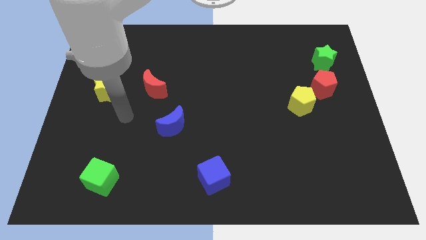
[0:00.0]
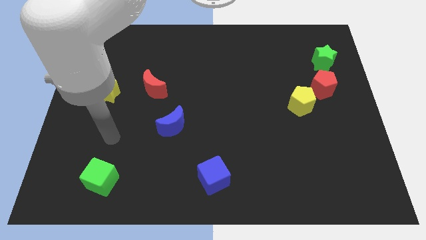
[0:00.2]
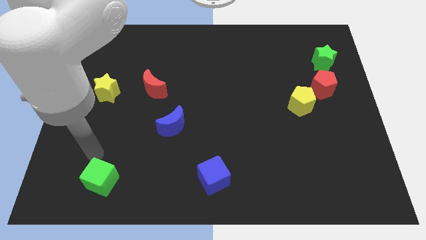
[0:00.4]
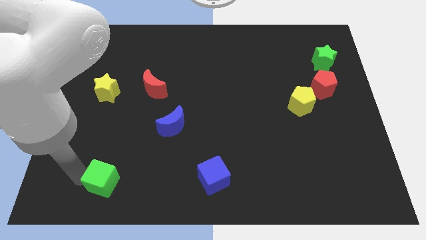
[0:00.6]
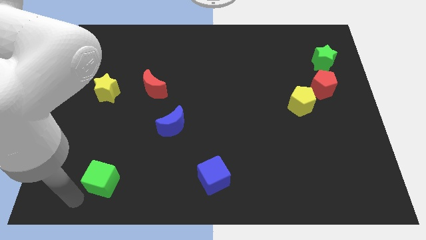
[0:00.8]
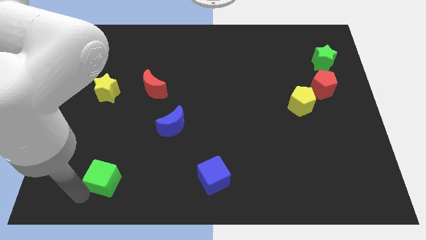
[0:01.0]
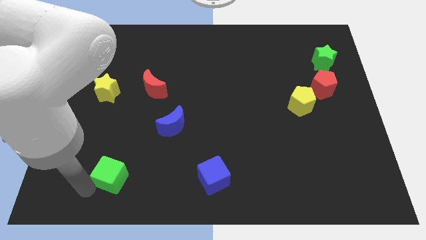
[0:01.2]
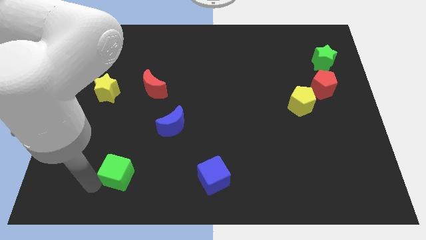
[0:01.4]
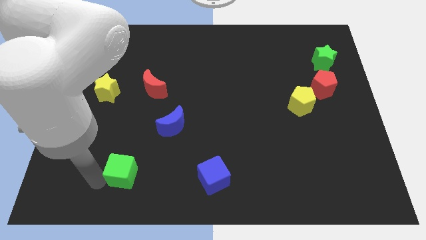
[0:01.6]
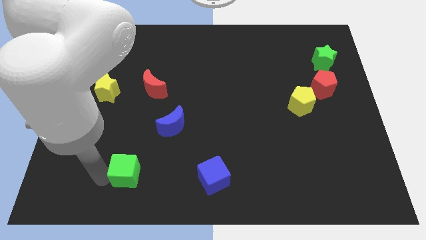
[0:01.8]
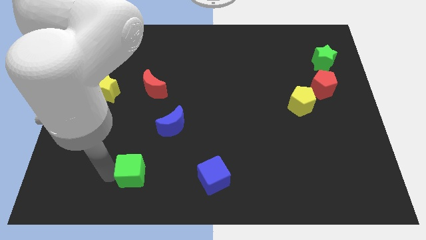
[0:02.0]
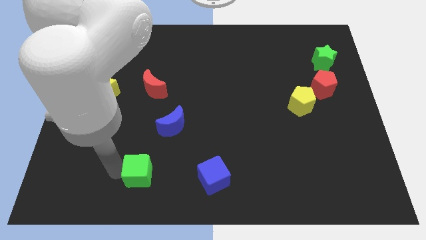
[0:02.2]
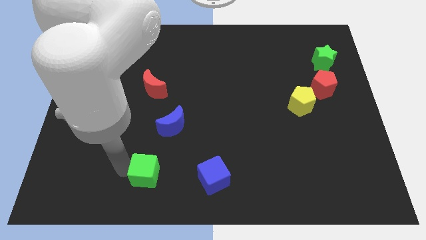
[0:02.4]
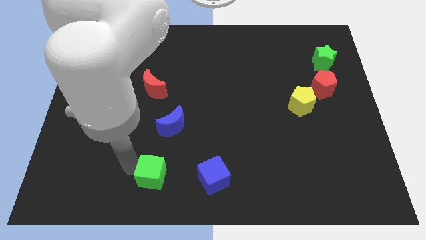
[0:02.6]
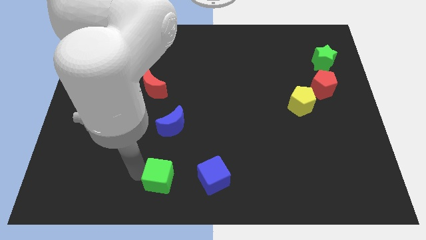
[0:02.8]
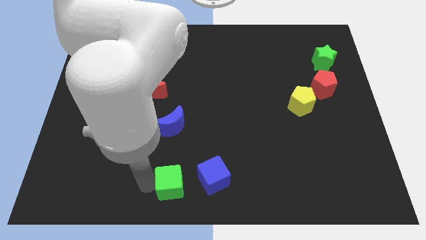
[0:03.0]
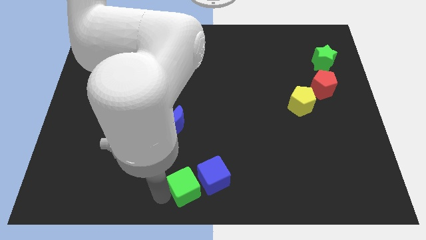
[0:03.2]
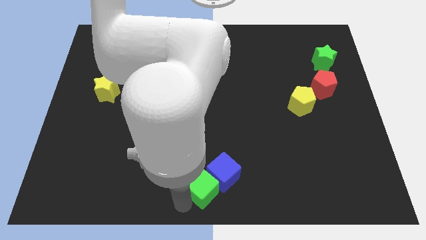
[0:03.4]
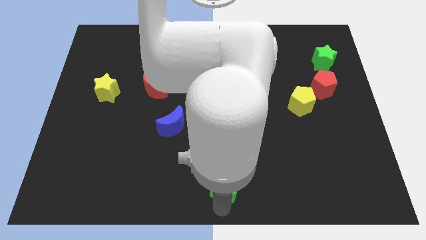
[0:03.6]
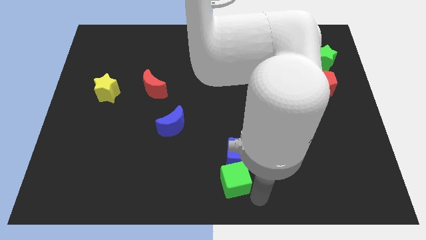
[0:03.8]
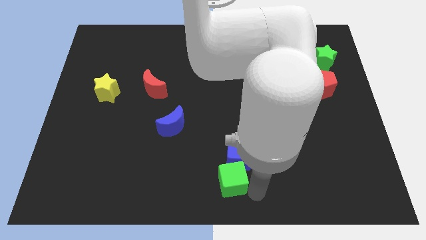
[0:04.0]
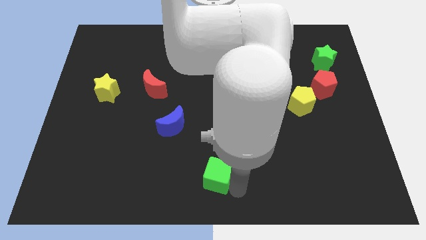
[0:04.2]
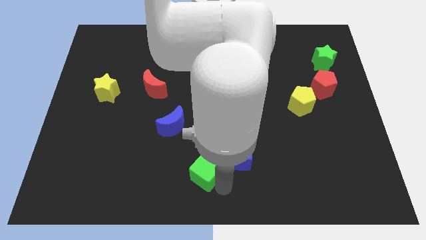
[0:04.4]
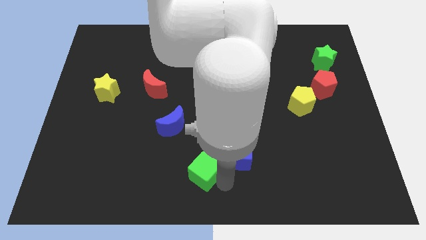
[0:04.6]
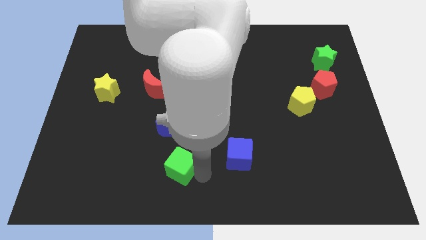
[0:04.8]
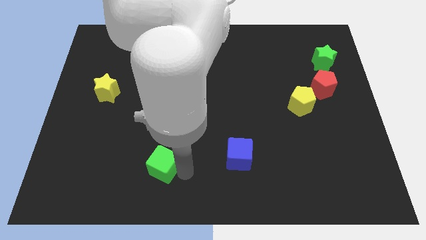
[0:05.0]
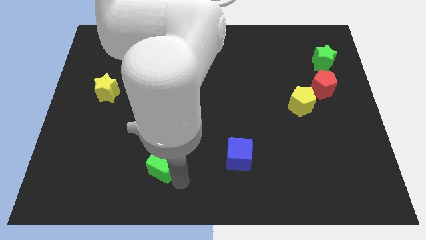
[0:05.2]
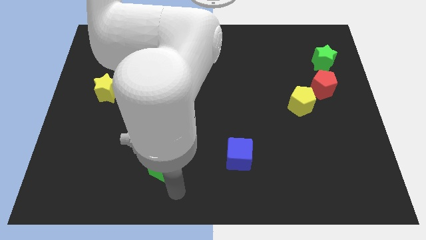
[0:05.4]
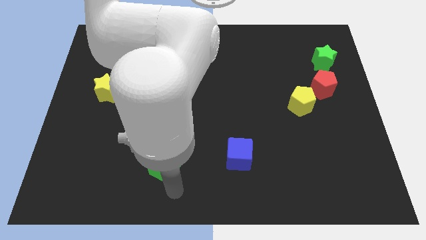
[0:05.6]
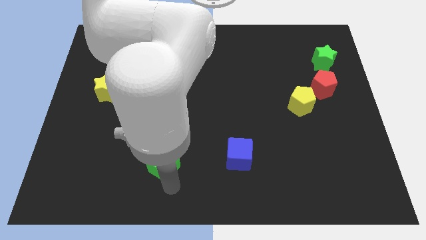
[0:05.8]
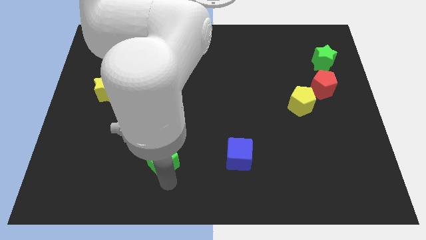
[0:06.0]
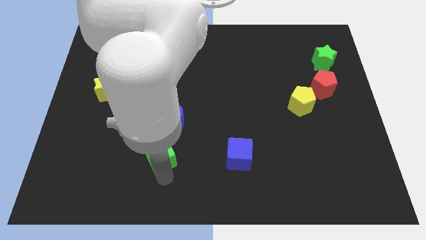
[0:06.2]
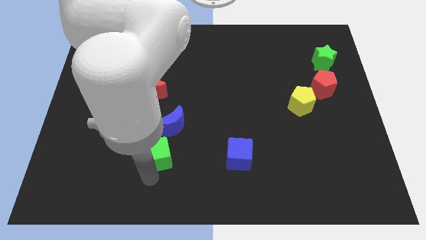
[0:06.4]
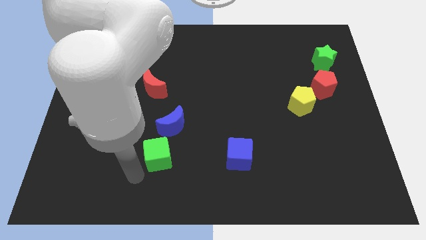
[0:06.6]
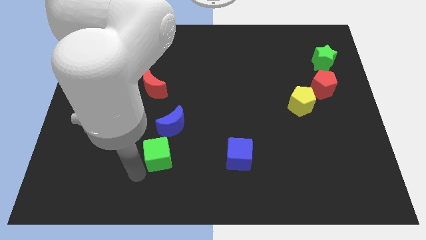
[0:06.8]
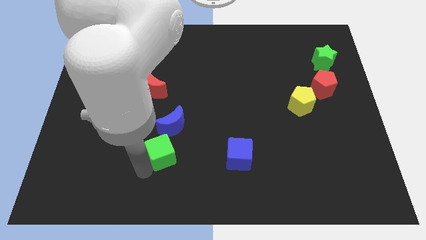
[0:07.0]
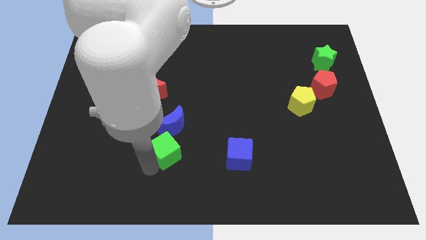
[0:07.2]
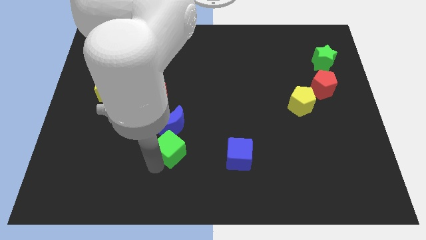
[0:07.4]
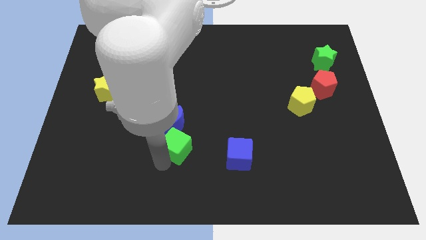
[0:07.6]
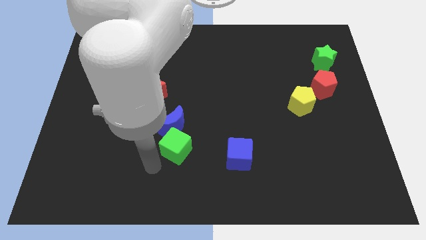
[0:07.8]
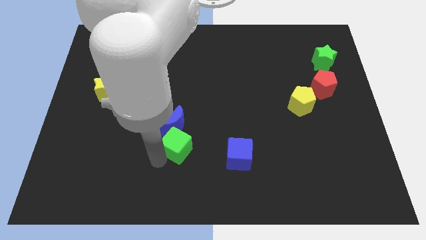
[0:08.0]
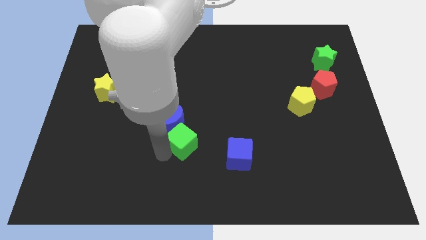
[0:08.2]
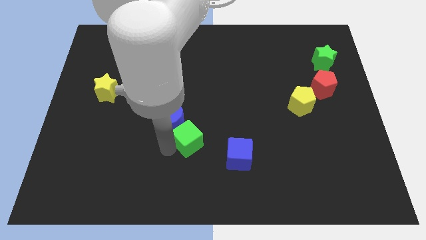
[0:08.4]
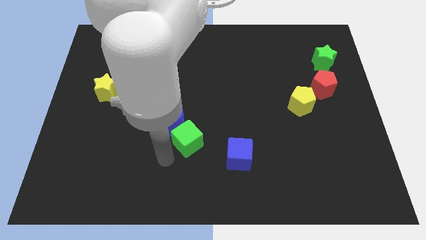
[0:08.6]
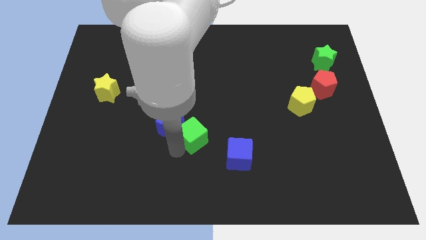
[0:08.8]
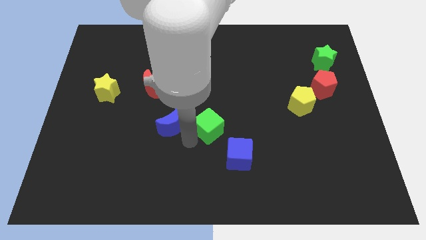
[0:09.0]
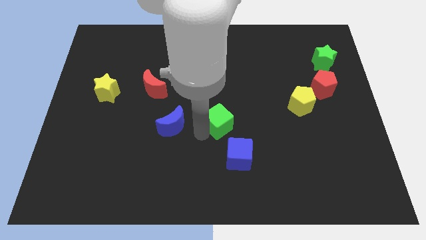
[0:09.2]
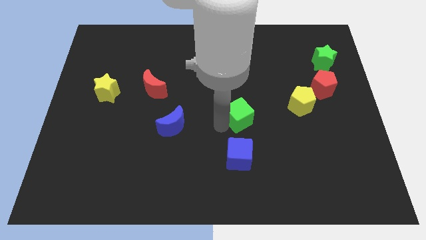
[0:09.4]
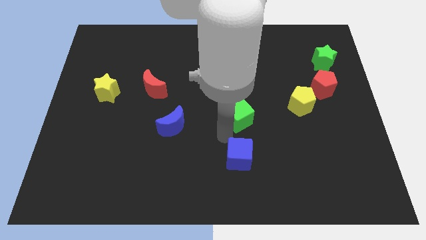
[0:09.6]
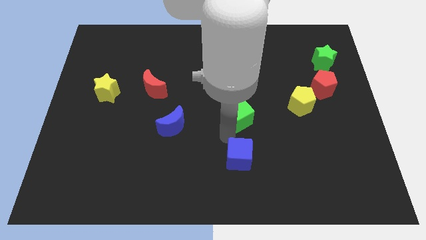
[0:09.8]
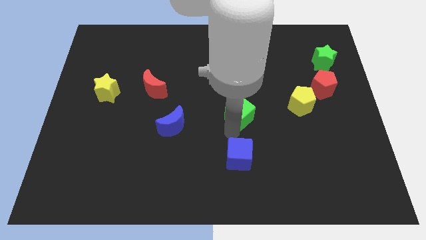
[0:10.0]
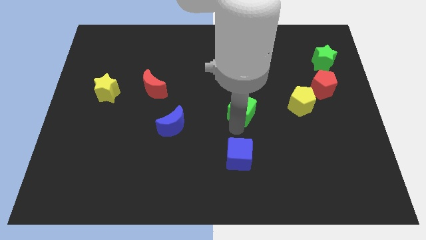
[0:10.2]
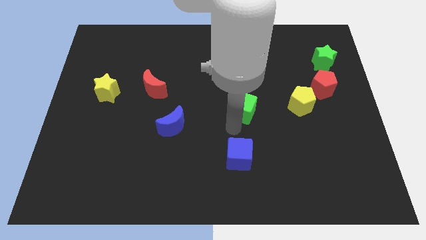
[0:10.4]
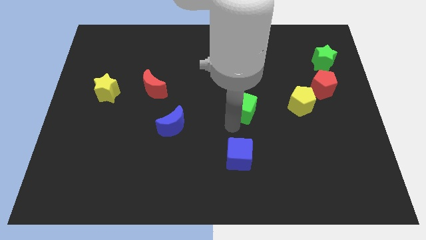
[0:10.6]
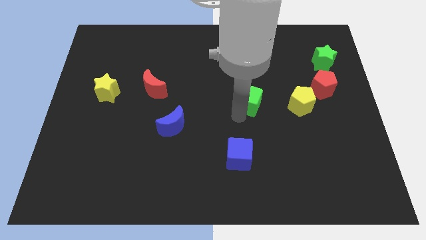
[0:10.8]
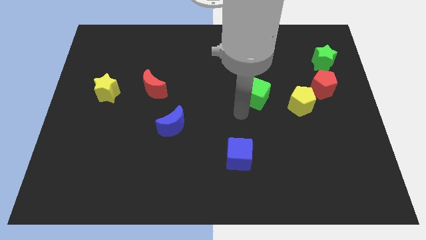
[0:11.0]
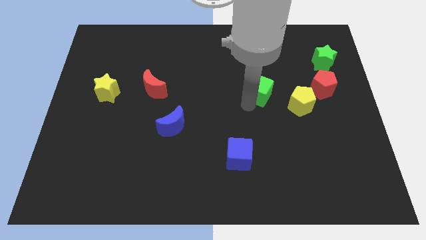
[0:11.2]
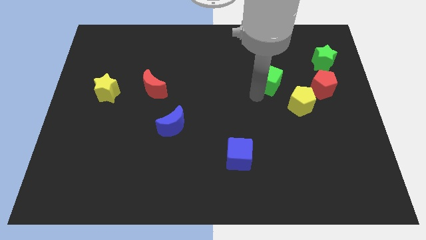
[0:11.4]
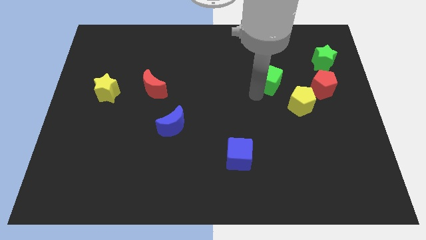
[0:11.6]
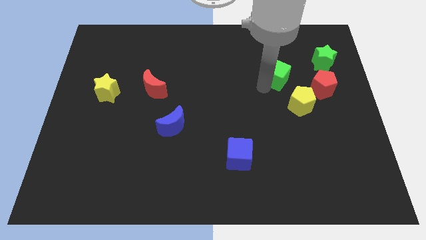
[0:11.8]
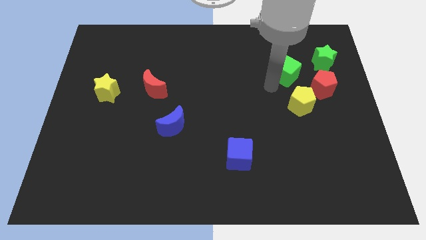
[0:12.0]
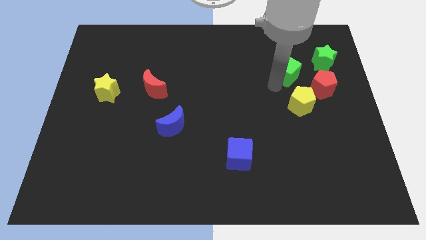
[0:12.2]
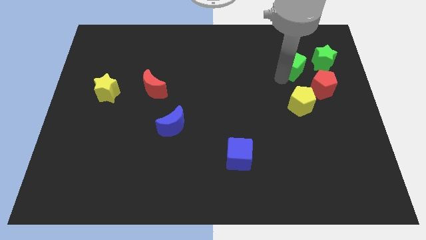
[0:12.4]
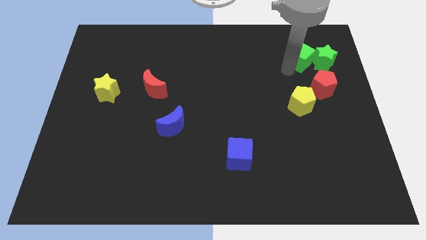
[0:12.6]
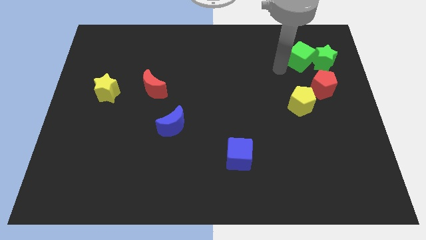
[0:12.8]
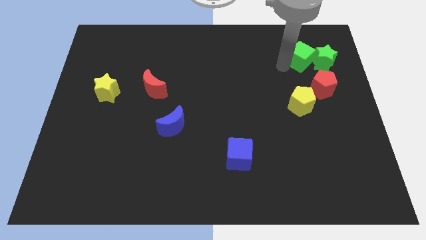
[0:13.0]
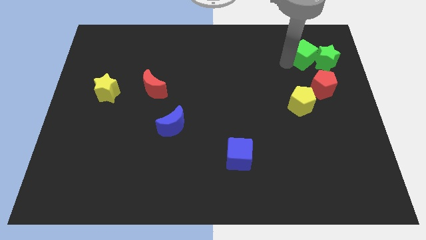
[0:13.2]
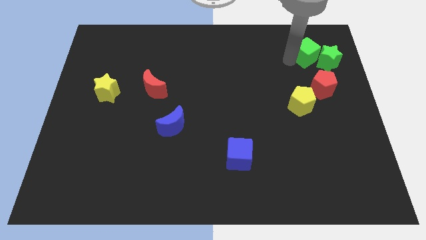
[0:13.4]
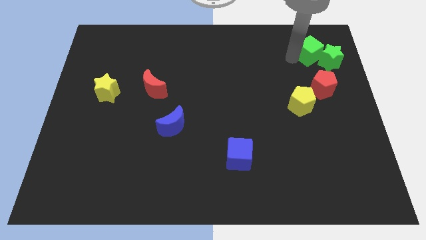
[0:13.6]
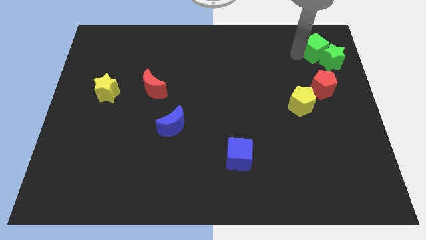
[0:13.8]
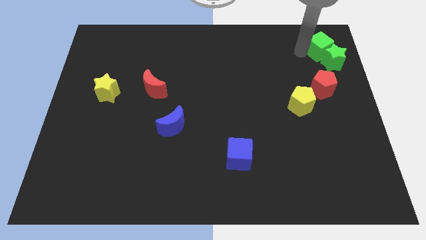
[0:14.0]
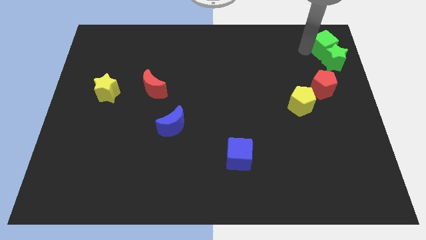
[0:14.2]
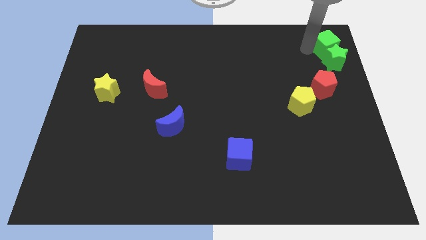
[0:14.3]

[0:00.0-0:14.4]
move the green cube to the upper right corner
